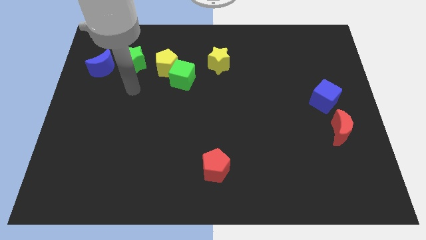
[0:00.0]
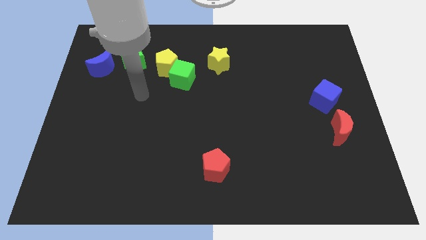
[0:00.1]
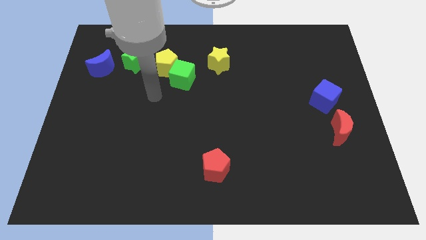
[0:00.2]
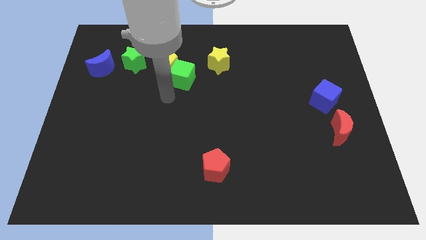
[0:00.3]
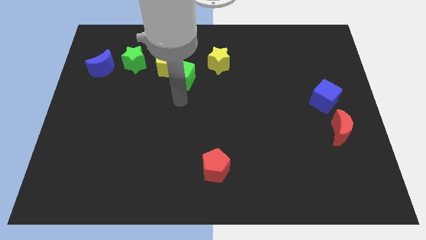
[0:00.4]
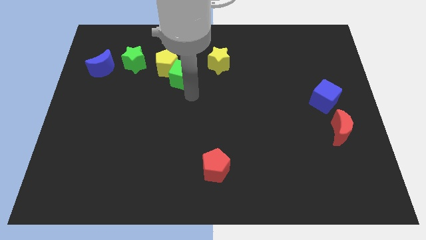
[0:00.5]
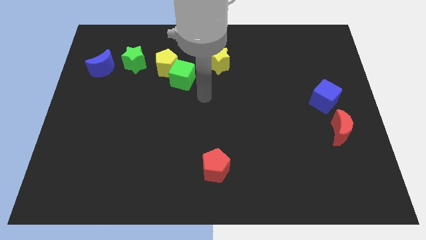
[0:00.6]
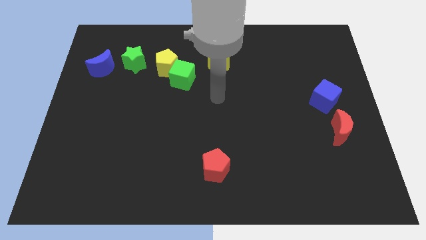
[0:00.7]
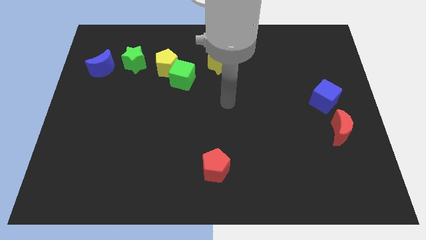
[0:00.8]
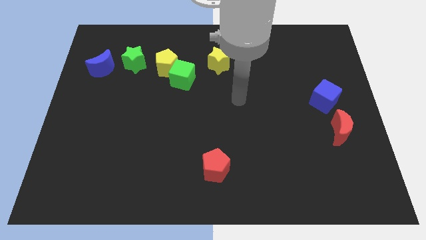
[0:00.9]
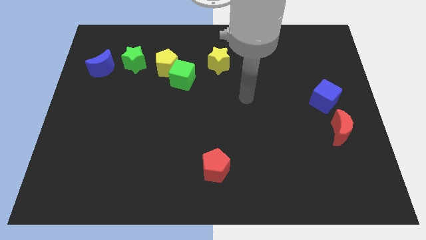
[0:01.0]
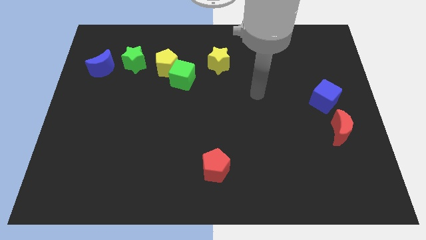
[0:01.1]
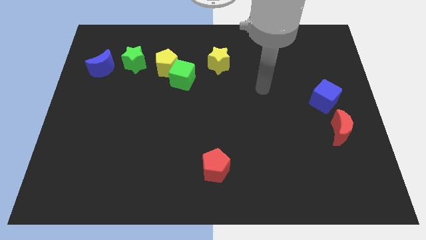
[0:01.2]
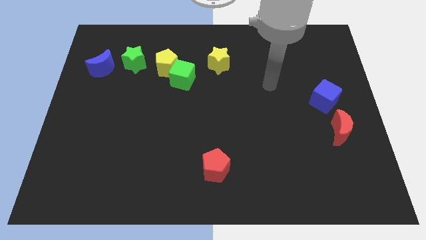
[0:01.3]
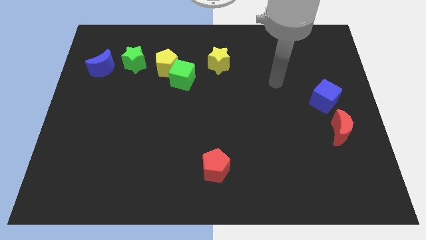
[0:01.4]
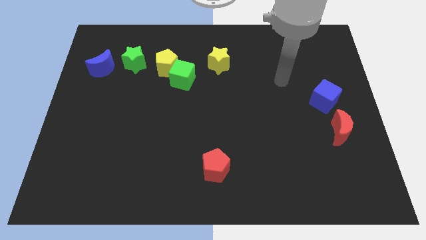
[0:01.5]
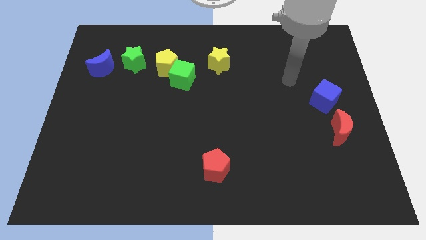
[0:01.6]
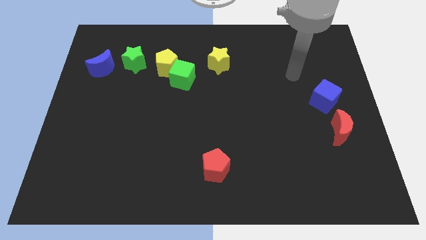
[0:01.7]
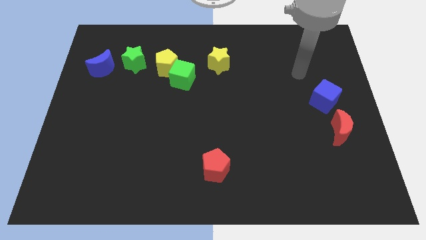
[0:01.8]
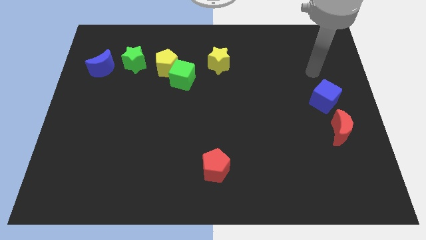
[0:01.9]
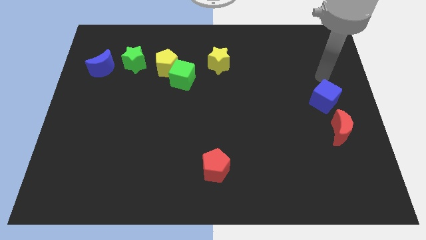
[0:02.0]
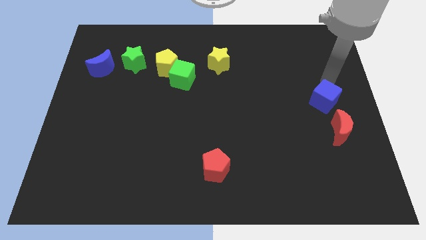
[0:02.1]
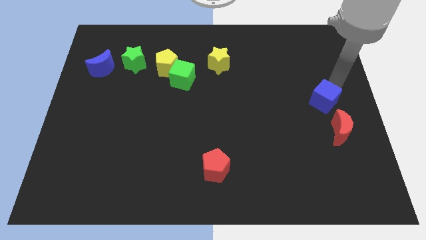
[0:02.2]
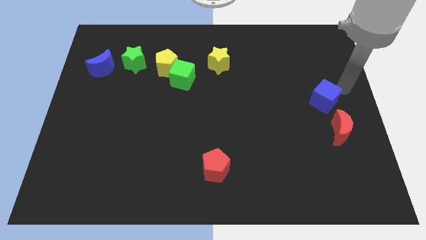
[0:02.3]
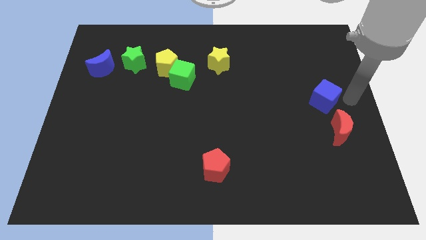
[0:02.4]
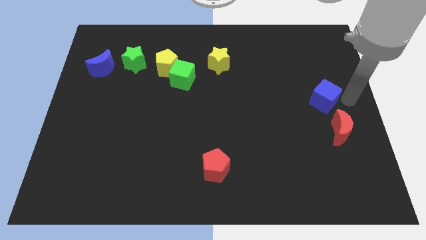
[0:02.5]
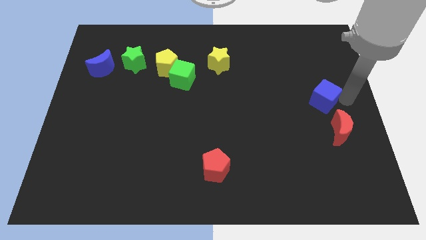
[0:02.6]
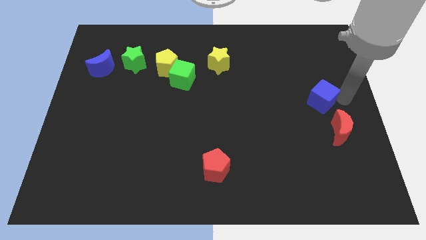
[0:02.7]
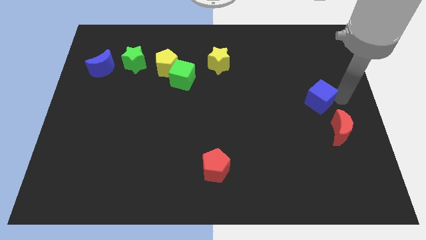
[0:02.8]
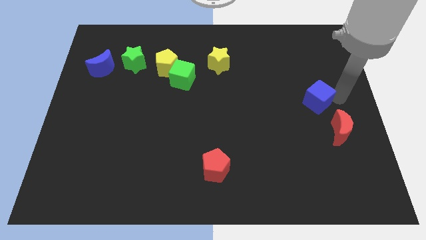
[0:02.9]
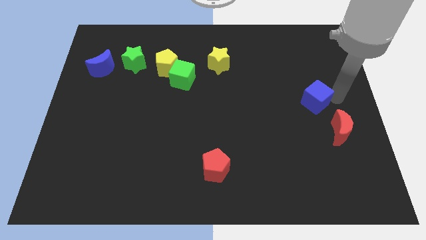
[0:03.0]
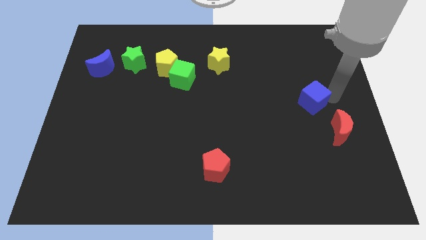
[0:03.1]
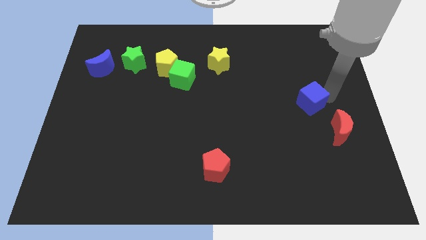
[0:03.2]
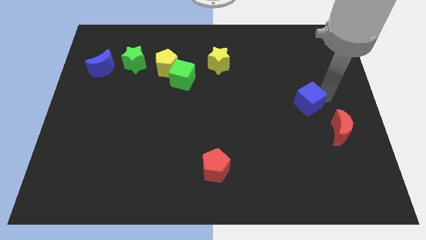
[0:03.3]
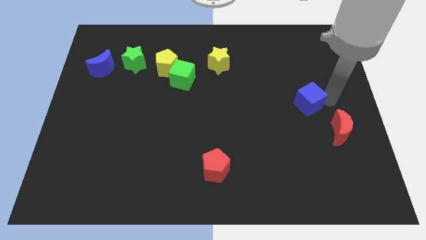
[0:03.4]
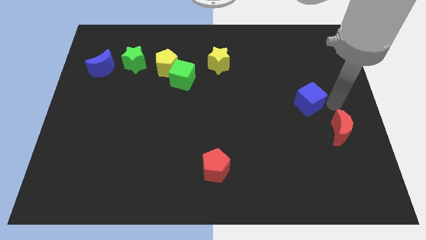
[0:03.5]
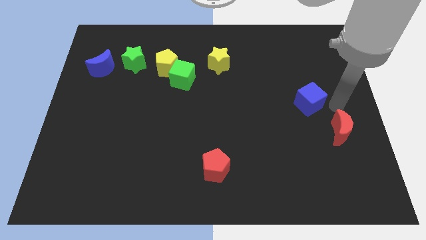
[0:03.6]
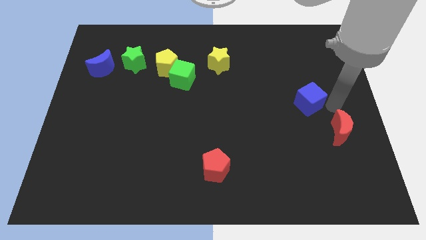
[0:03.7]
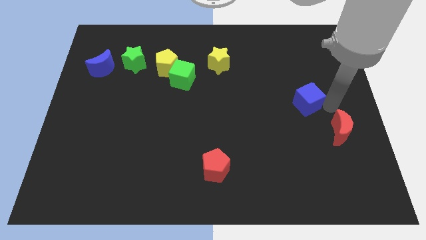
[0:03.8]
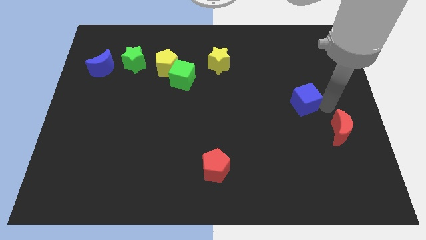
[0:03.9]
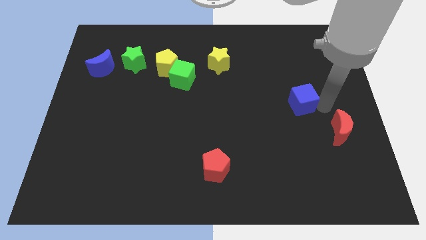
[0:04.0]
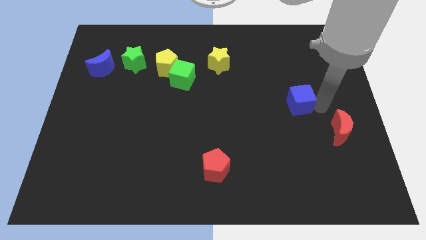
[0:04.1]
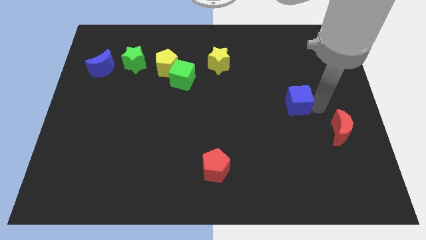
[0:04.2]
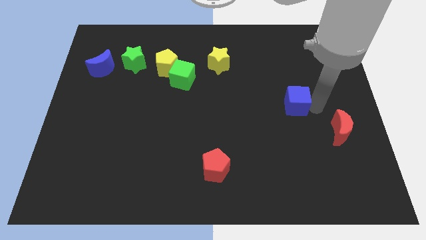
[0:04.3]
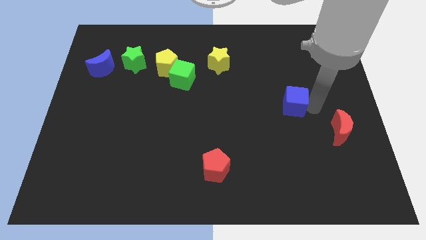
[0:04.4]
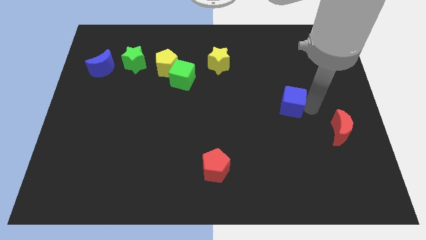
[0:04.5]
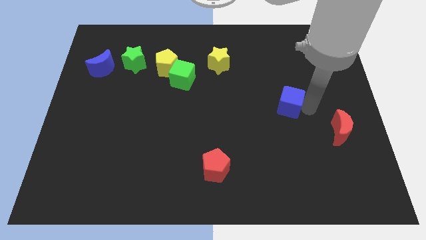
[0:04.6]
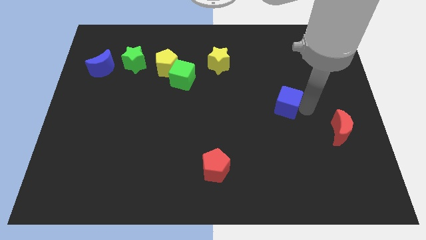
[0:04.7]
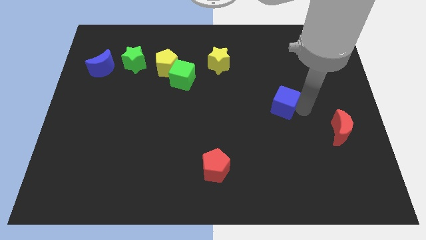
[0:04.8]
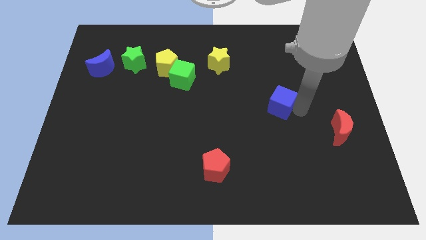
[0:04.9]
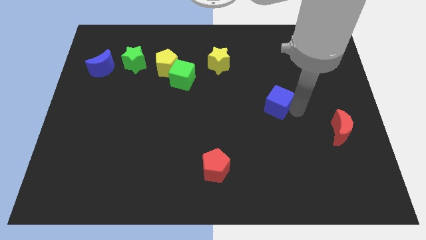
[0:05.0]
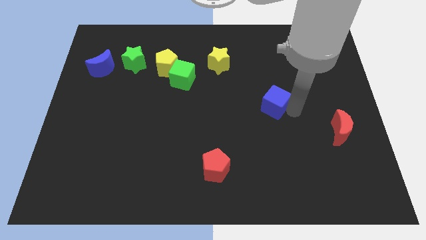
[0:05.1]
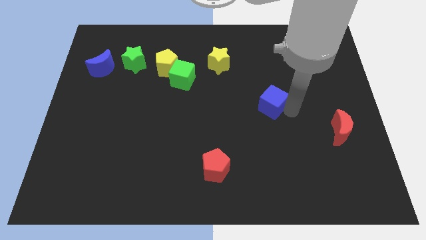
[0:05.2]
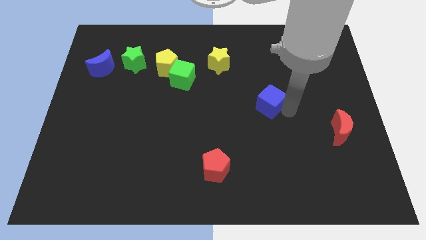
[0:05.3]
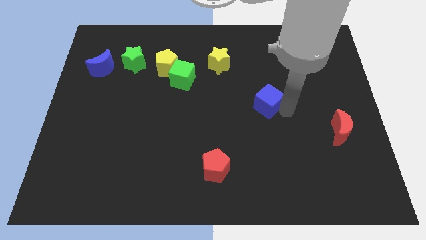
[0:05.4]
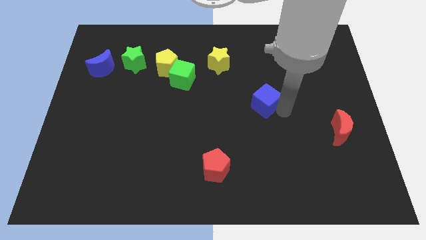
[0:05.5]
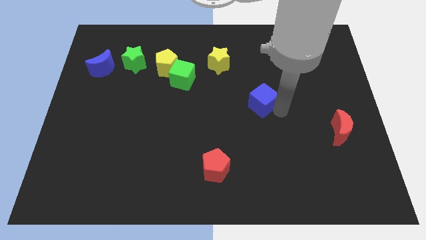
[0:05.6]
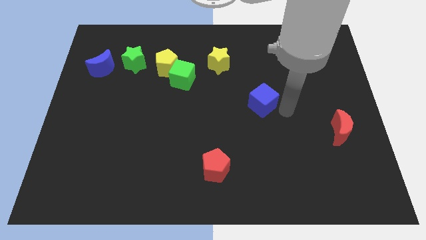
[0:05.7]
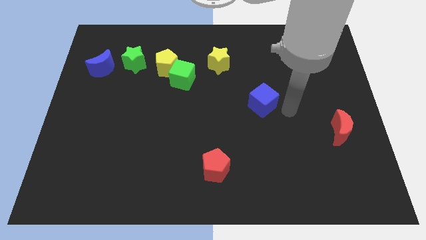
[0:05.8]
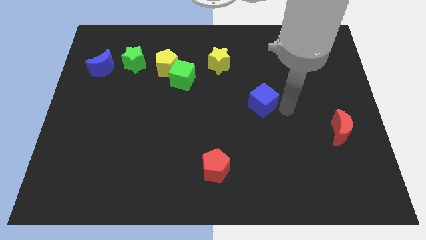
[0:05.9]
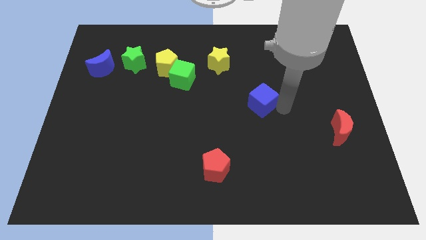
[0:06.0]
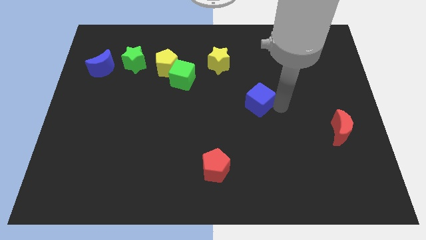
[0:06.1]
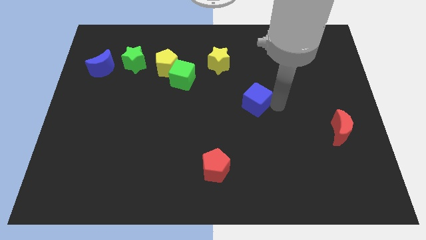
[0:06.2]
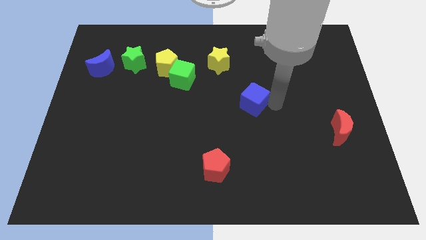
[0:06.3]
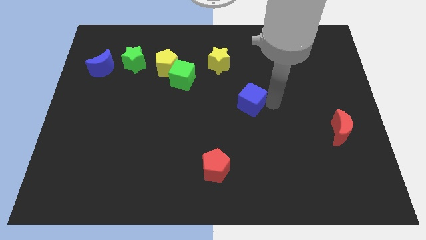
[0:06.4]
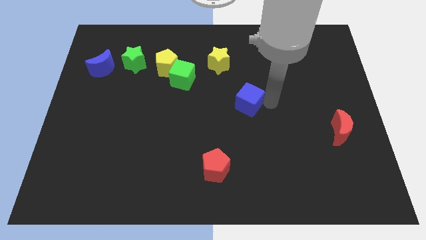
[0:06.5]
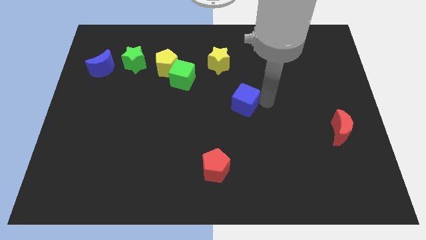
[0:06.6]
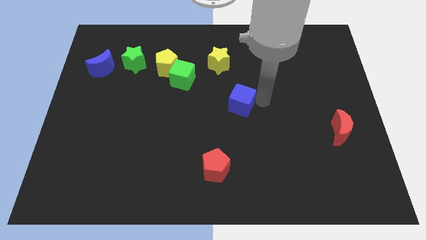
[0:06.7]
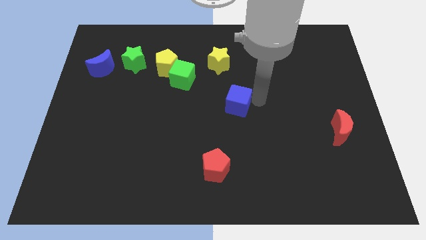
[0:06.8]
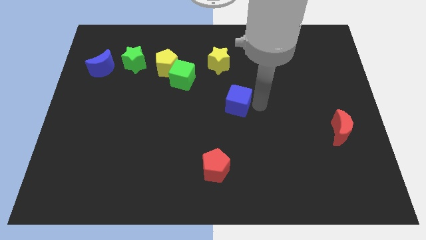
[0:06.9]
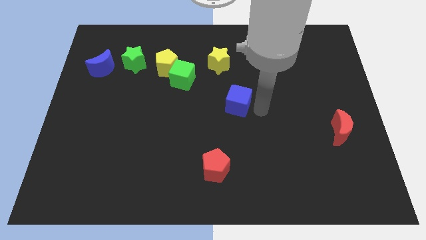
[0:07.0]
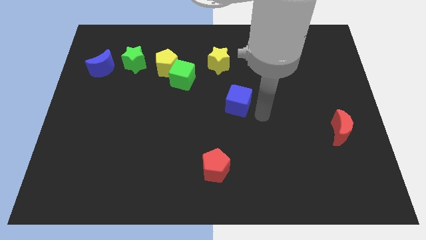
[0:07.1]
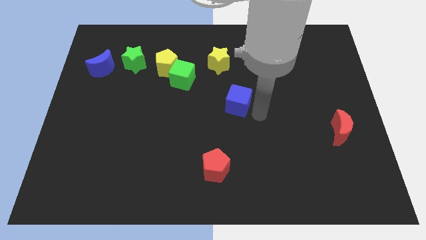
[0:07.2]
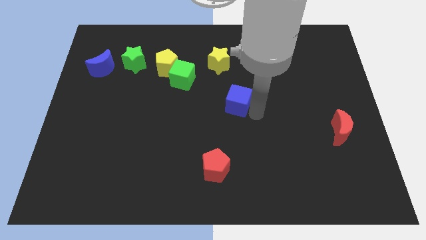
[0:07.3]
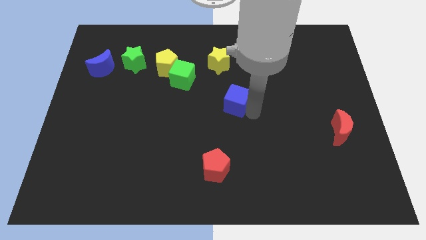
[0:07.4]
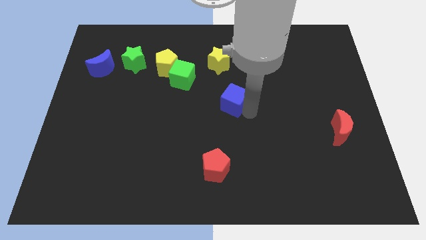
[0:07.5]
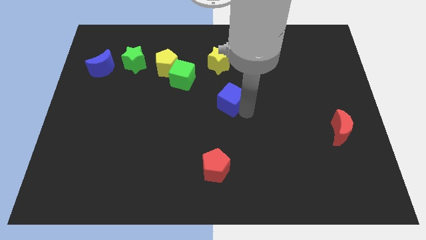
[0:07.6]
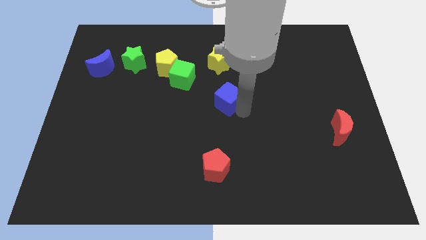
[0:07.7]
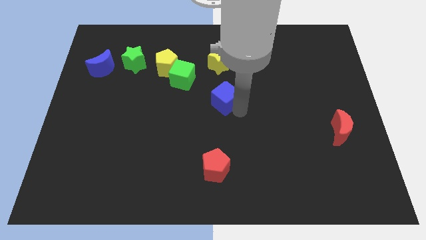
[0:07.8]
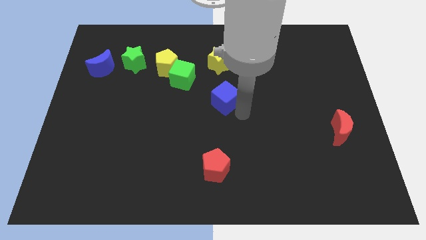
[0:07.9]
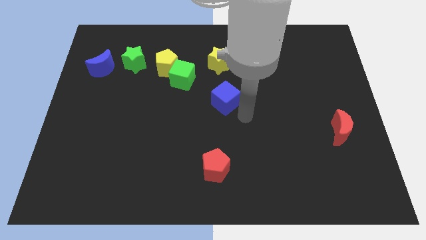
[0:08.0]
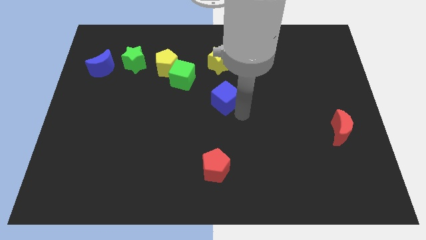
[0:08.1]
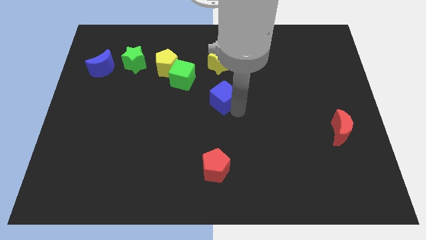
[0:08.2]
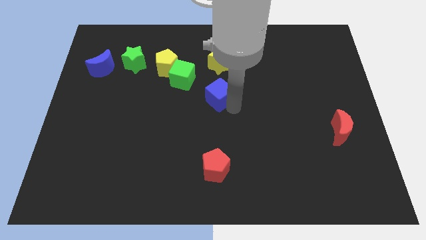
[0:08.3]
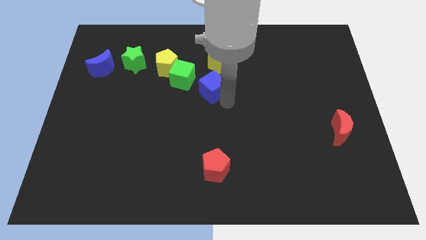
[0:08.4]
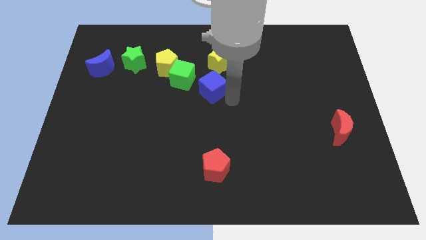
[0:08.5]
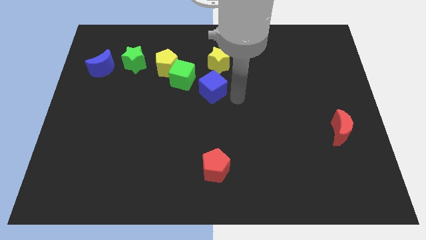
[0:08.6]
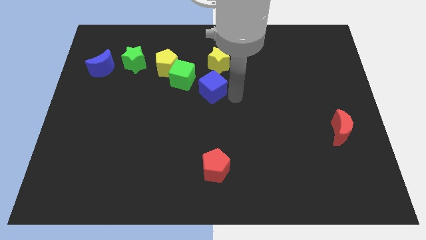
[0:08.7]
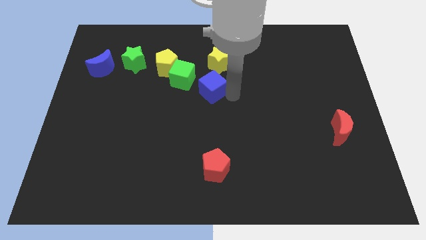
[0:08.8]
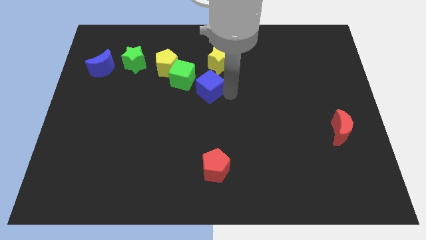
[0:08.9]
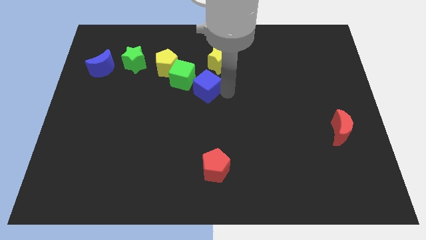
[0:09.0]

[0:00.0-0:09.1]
push the blue cube to the bottom right of the yellow pentagon
